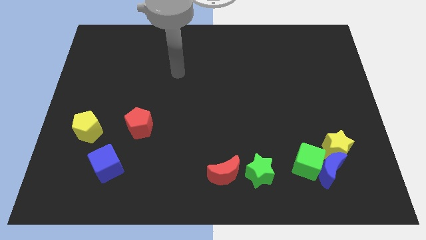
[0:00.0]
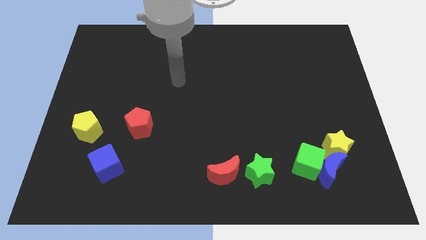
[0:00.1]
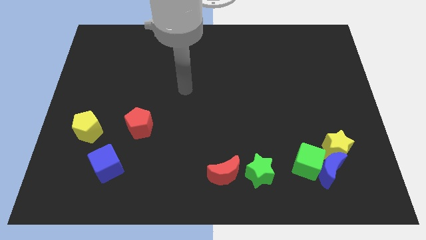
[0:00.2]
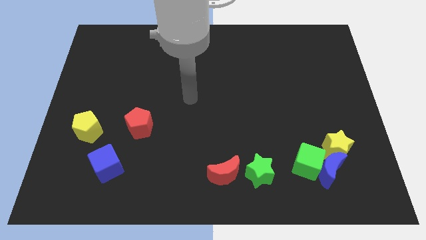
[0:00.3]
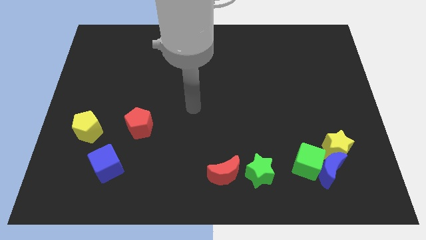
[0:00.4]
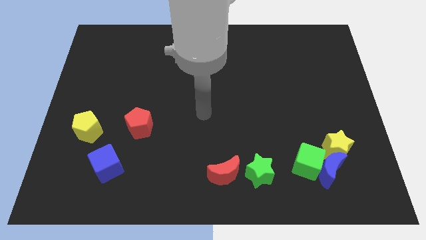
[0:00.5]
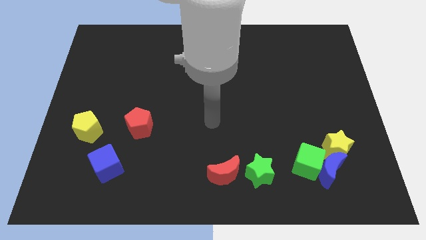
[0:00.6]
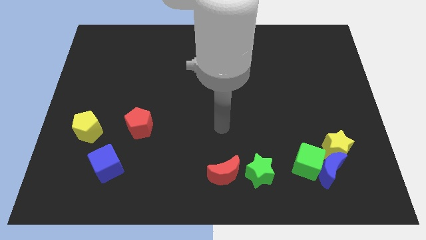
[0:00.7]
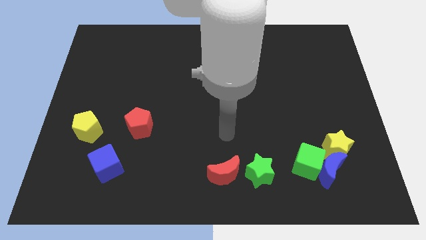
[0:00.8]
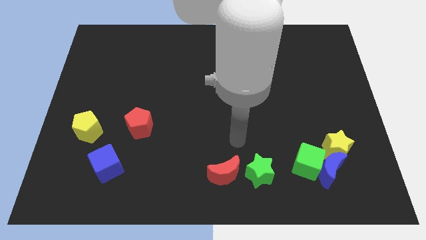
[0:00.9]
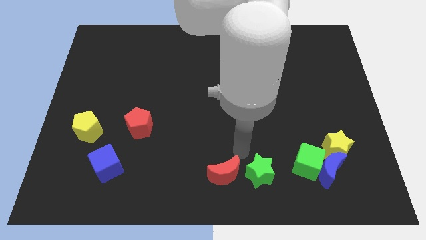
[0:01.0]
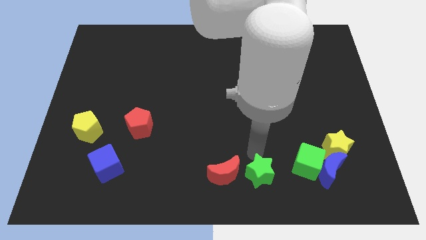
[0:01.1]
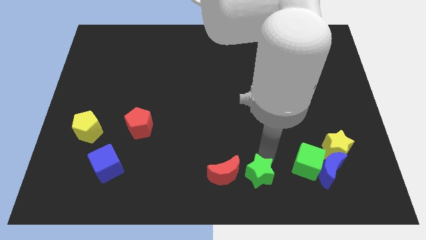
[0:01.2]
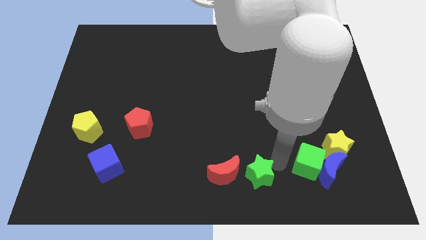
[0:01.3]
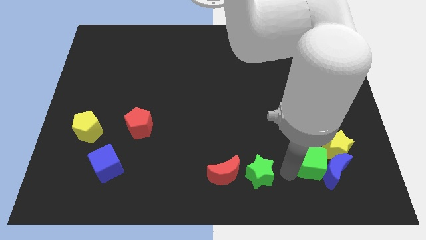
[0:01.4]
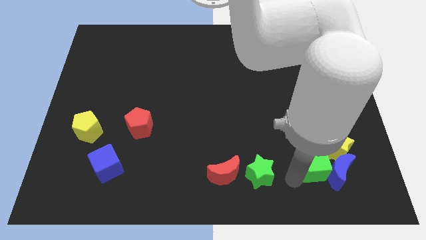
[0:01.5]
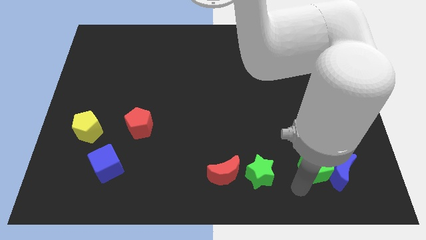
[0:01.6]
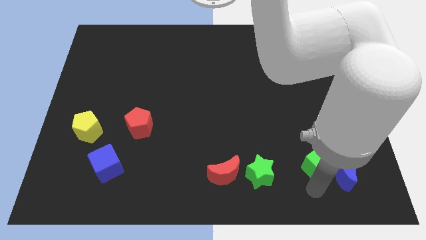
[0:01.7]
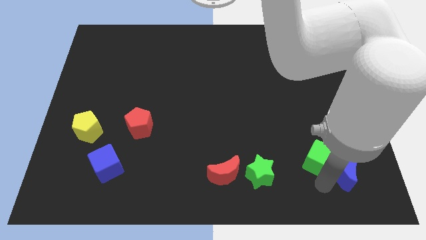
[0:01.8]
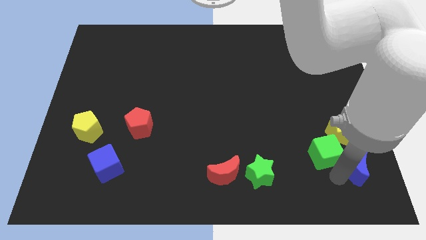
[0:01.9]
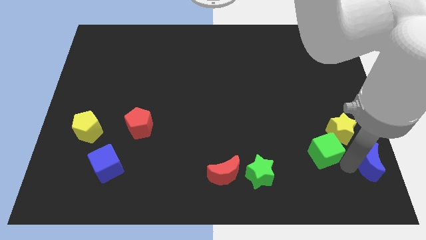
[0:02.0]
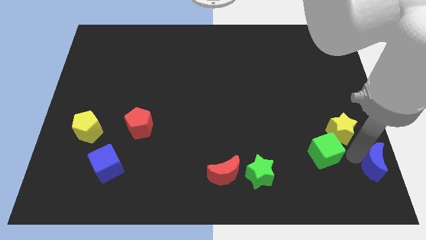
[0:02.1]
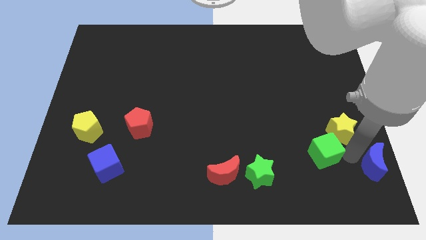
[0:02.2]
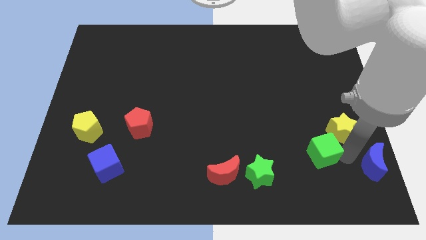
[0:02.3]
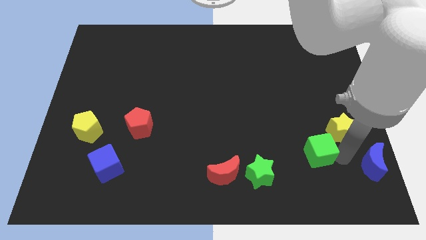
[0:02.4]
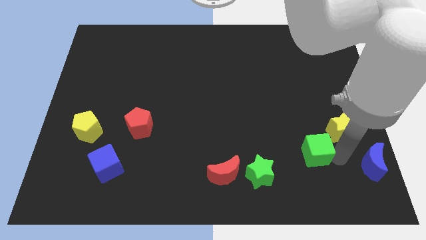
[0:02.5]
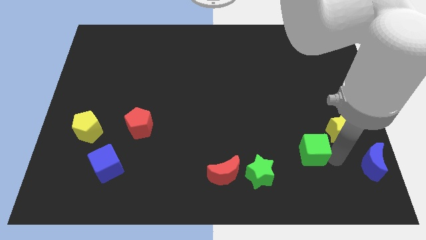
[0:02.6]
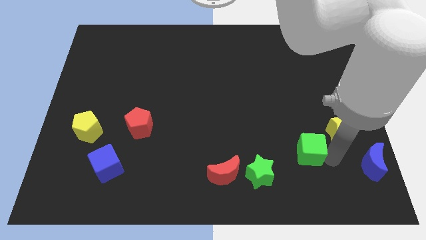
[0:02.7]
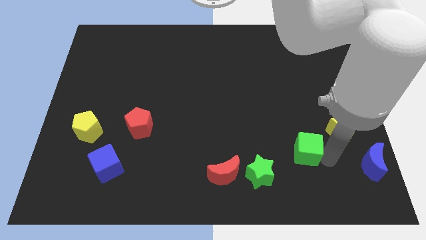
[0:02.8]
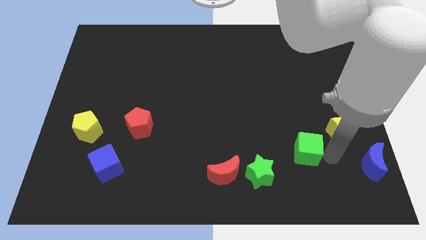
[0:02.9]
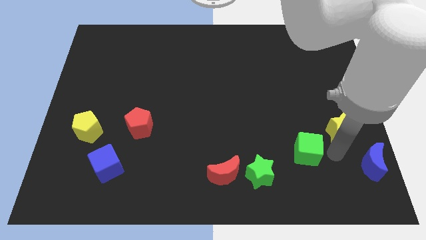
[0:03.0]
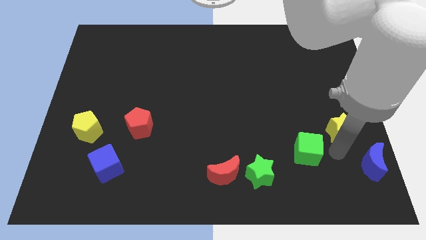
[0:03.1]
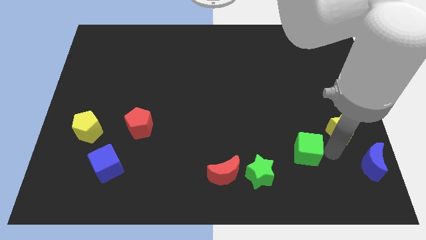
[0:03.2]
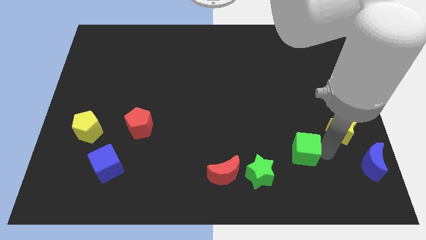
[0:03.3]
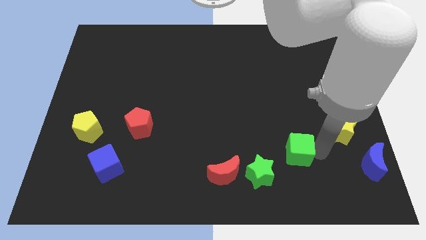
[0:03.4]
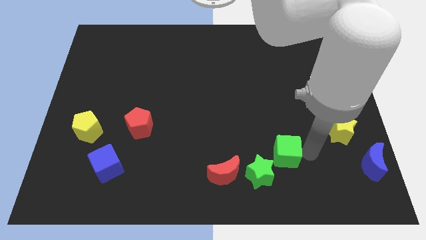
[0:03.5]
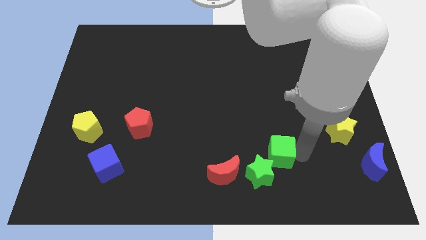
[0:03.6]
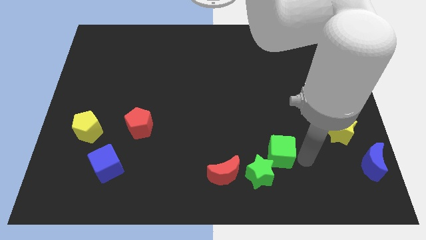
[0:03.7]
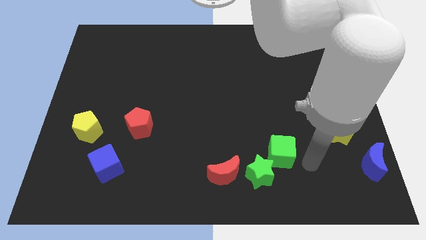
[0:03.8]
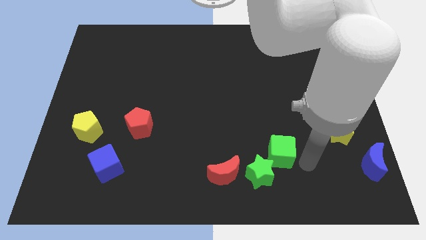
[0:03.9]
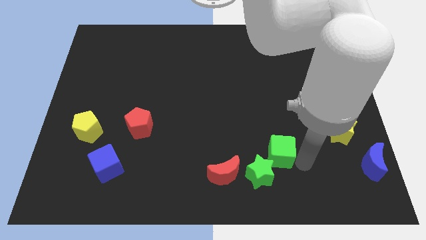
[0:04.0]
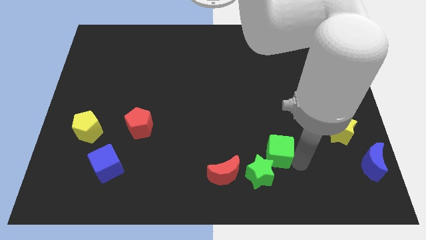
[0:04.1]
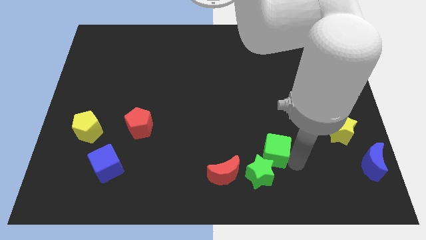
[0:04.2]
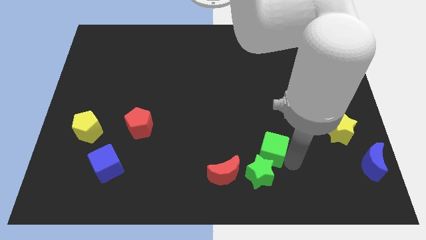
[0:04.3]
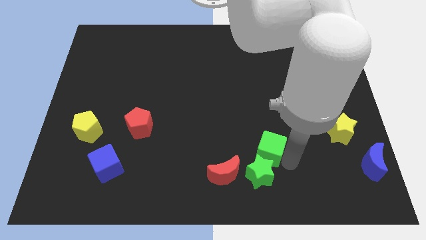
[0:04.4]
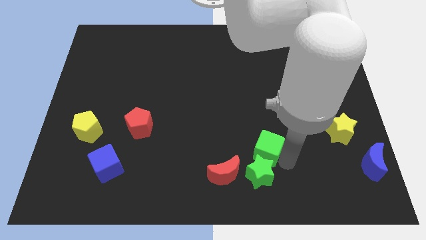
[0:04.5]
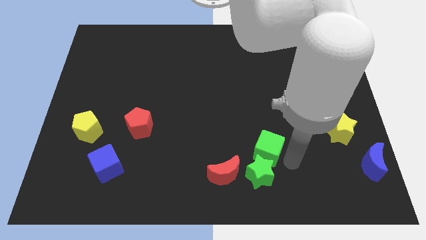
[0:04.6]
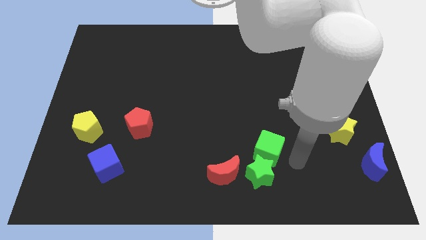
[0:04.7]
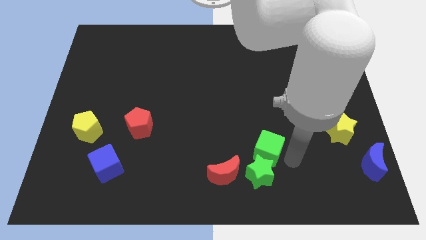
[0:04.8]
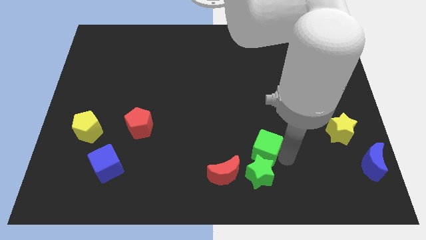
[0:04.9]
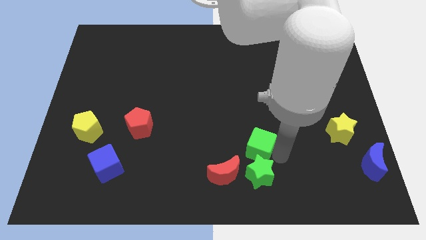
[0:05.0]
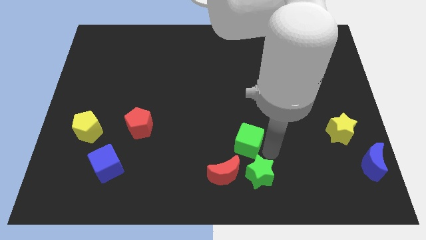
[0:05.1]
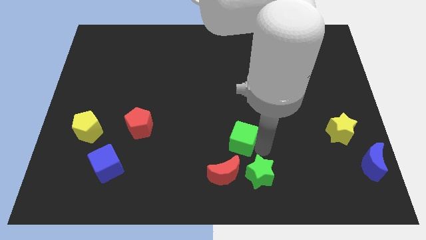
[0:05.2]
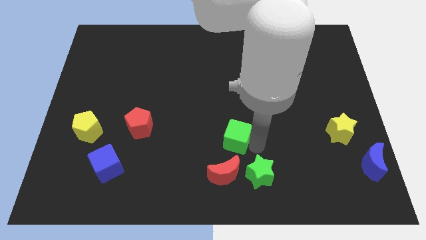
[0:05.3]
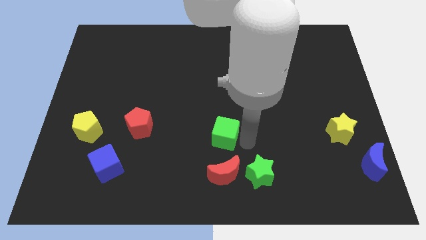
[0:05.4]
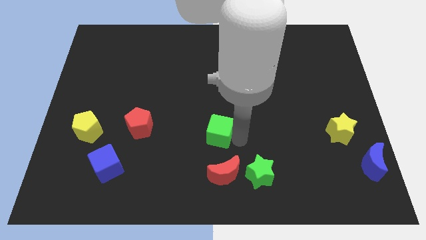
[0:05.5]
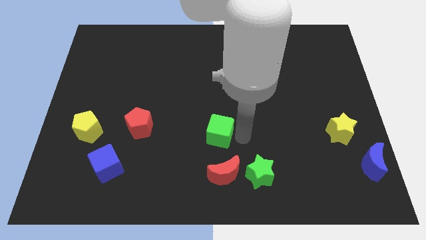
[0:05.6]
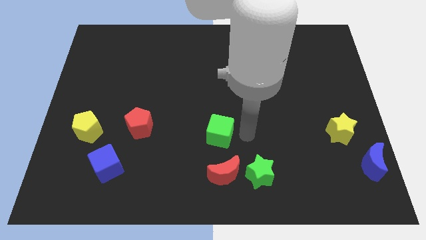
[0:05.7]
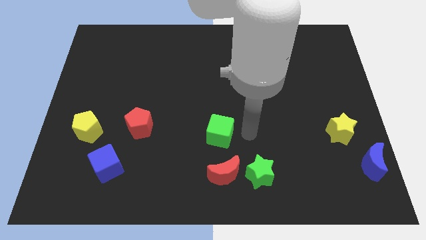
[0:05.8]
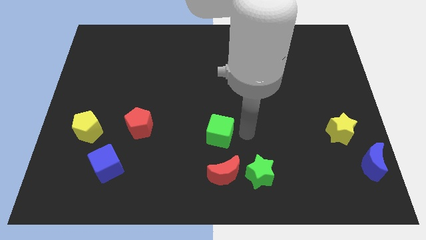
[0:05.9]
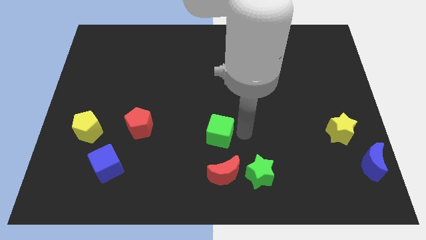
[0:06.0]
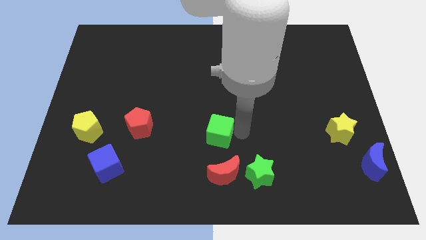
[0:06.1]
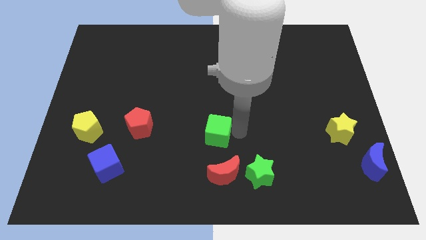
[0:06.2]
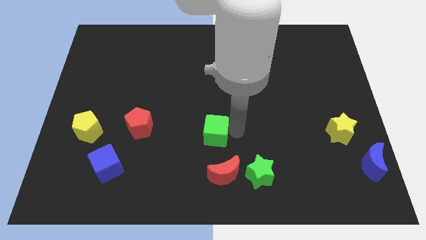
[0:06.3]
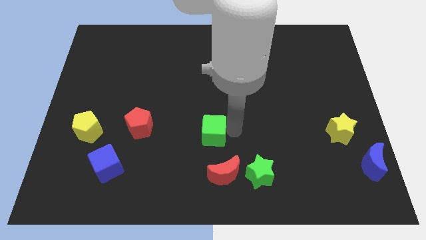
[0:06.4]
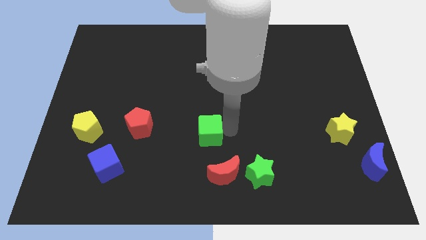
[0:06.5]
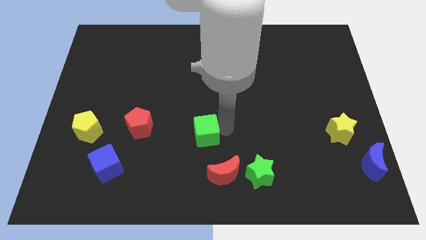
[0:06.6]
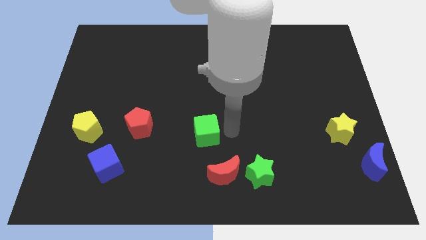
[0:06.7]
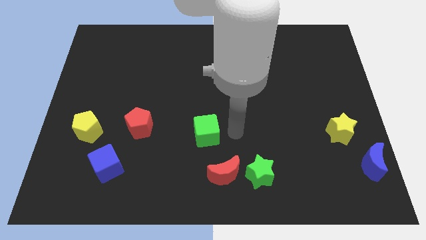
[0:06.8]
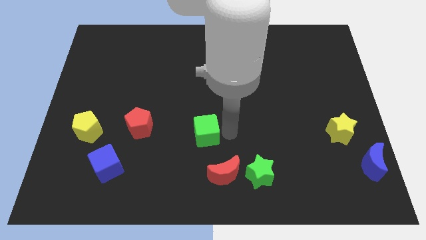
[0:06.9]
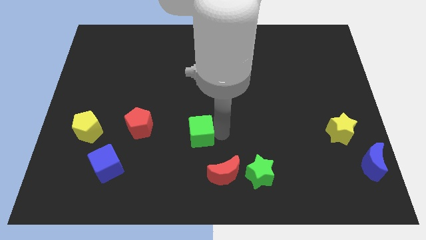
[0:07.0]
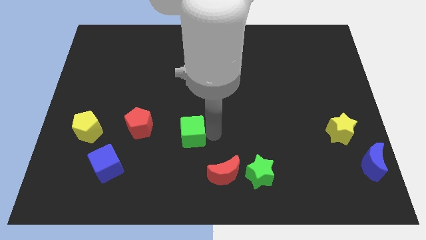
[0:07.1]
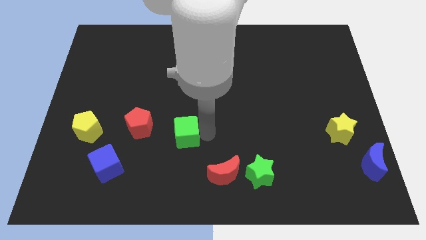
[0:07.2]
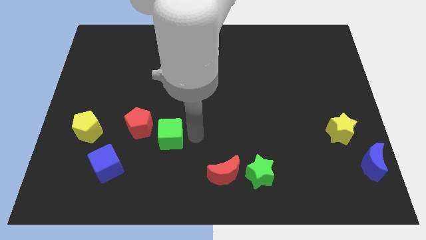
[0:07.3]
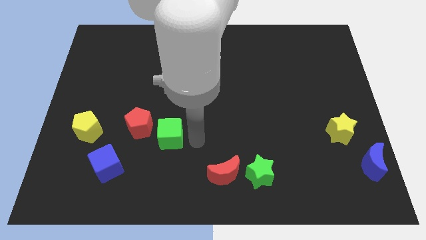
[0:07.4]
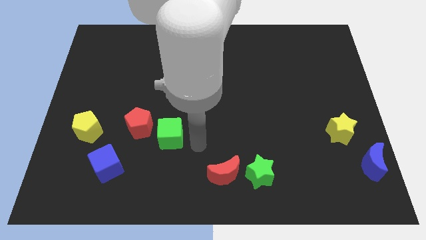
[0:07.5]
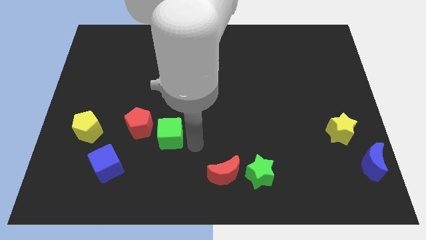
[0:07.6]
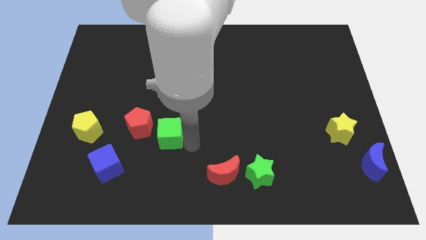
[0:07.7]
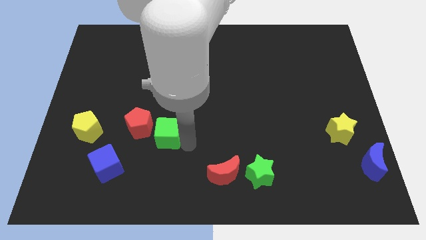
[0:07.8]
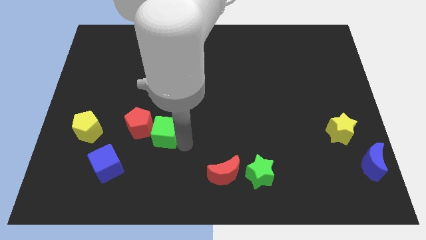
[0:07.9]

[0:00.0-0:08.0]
move the green cube towards the red pentagon
